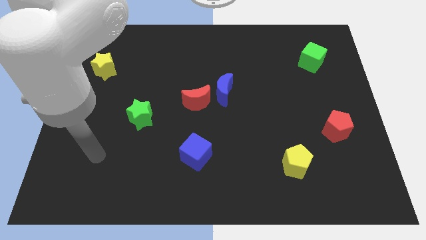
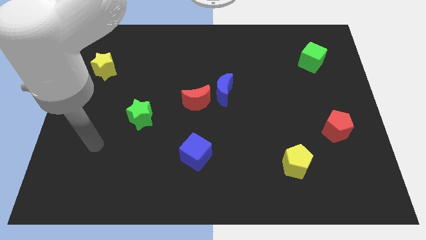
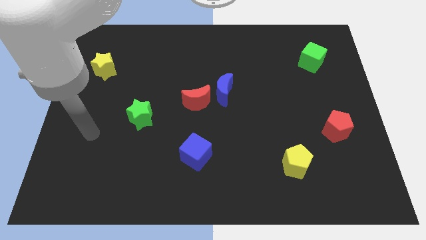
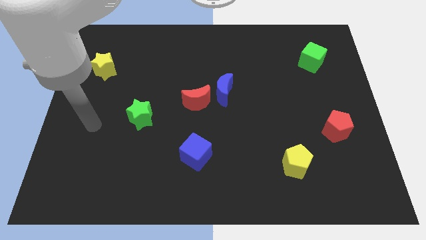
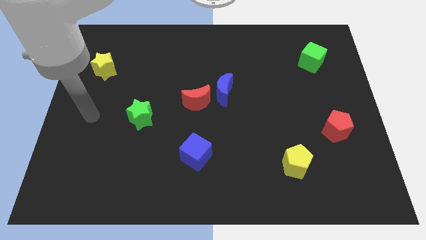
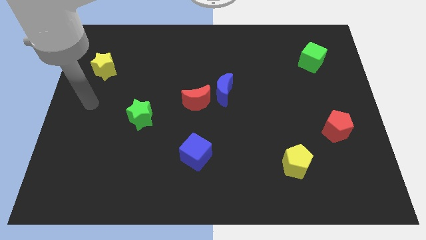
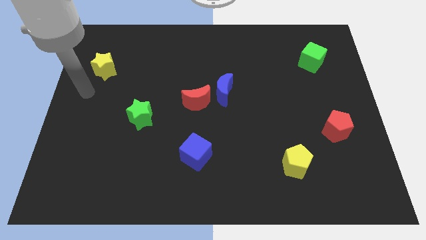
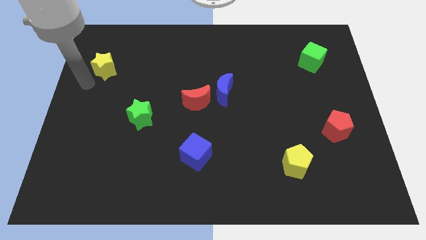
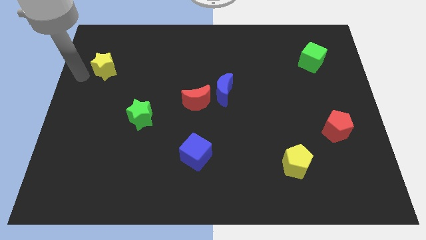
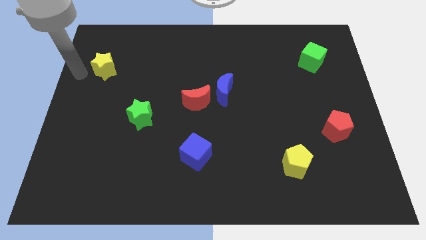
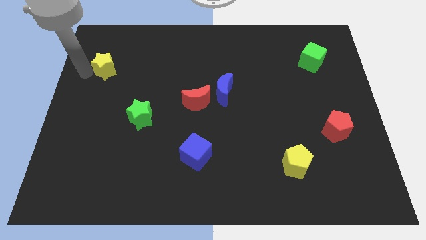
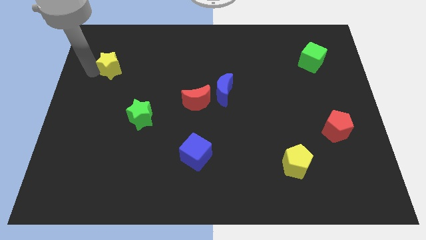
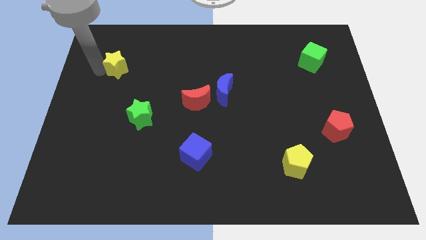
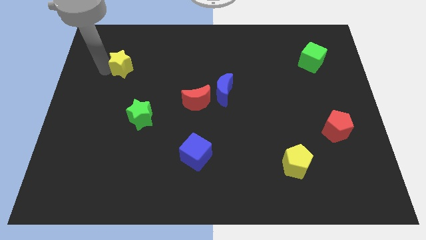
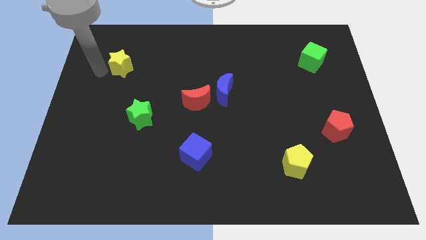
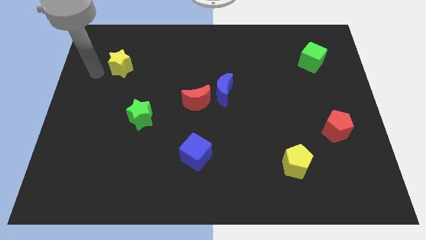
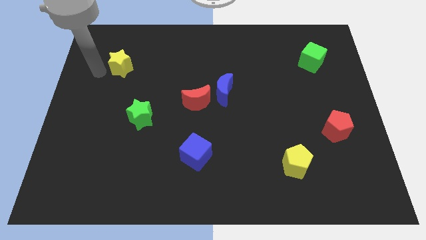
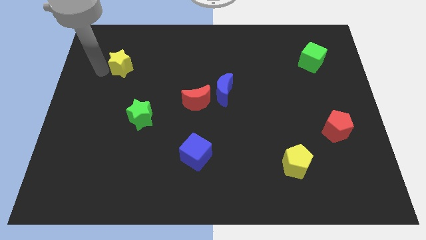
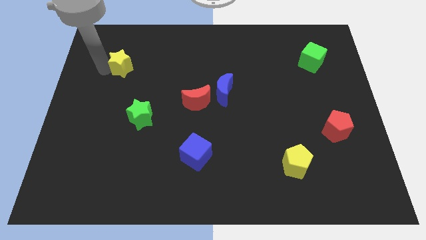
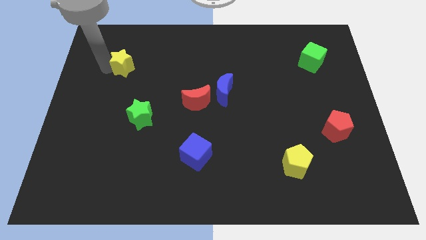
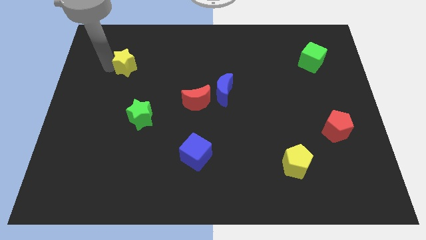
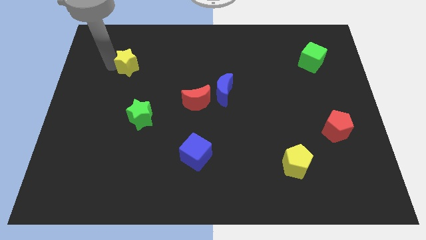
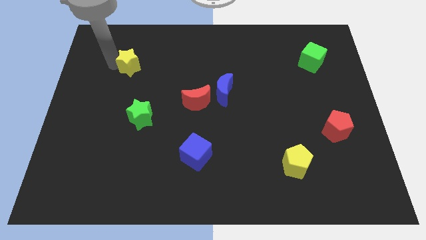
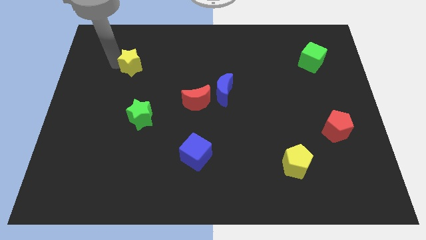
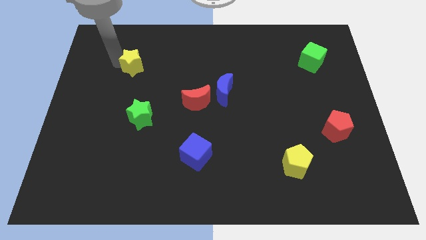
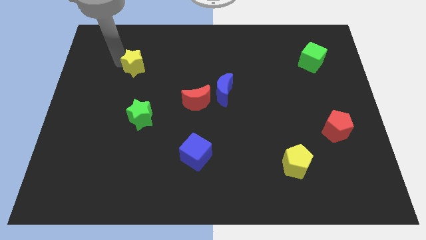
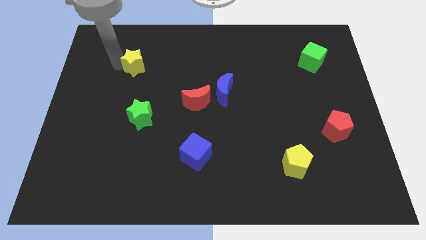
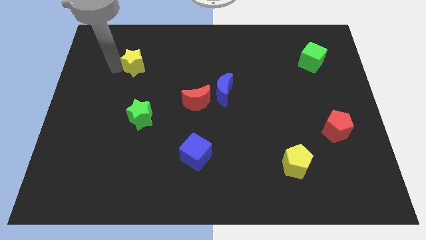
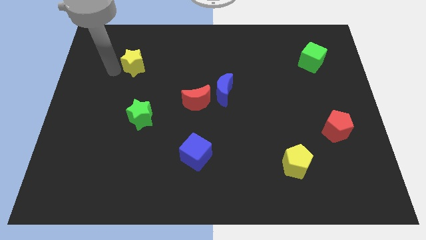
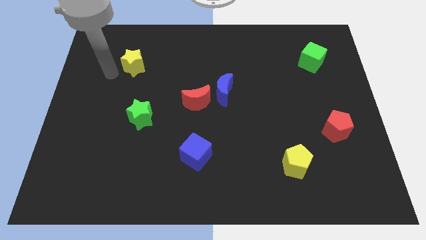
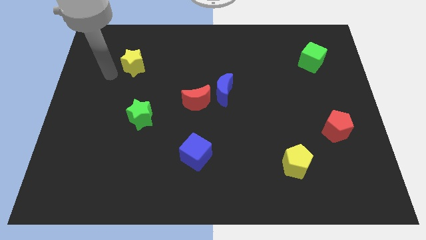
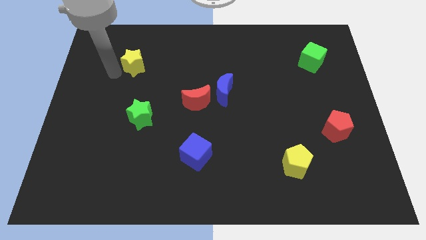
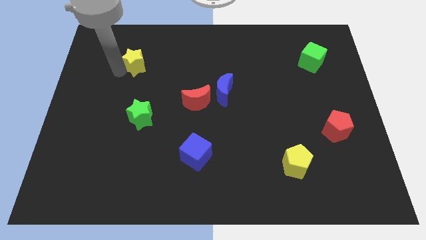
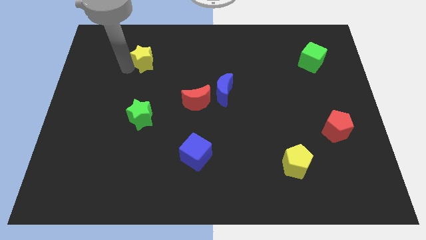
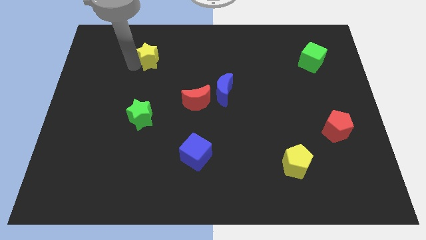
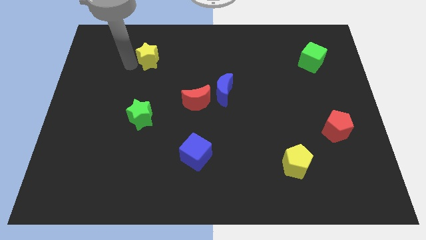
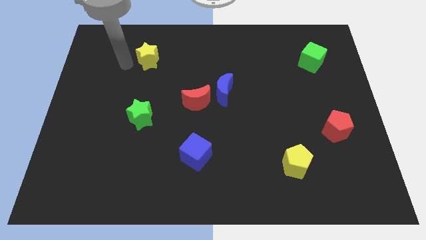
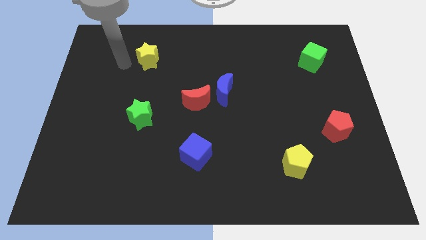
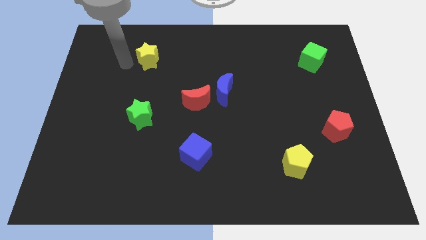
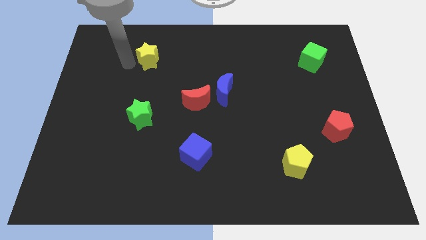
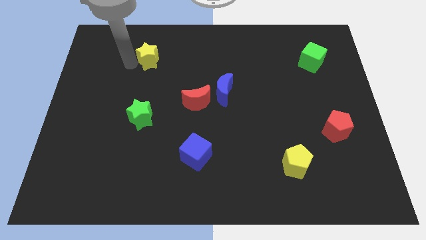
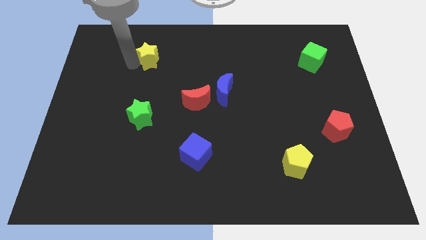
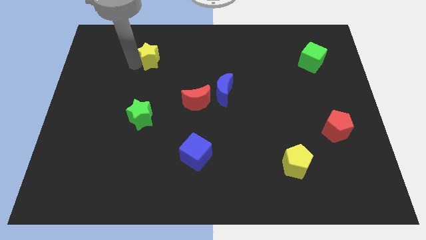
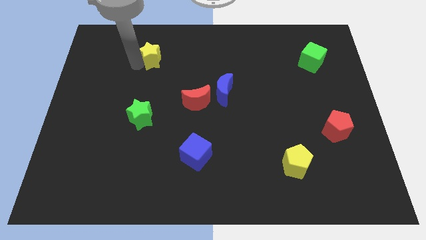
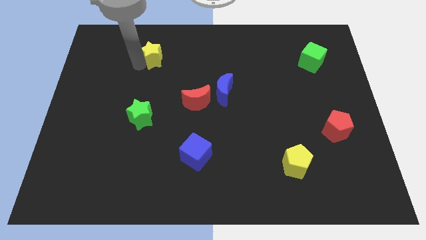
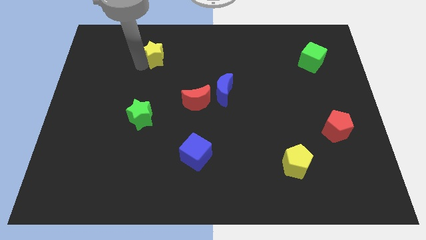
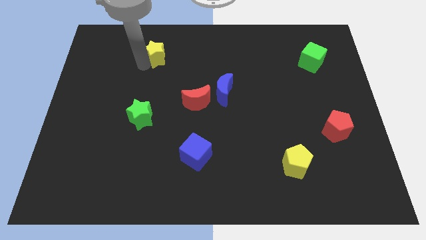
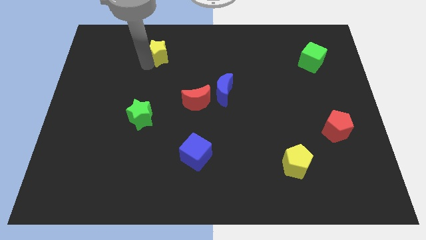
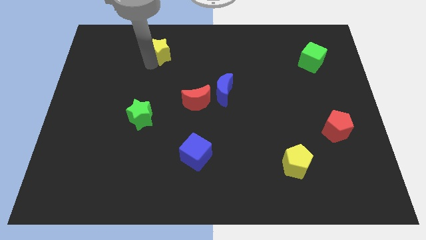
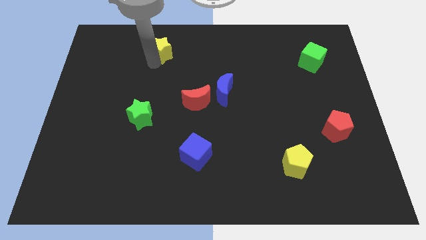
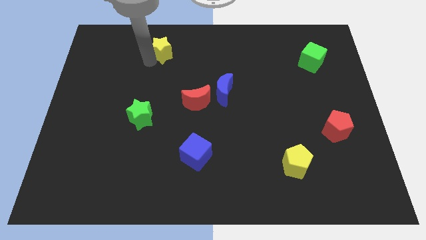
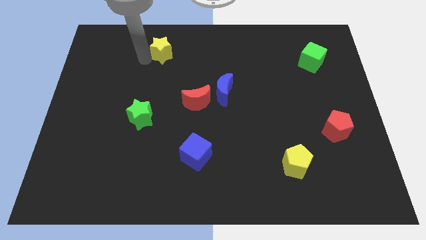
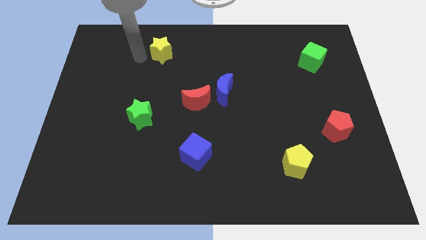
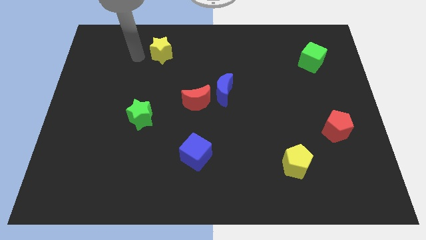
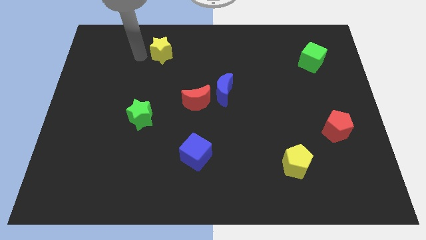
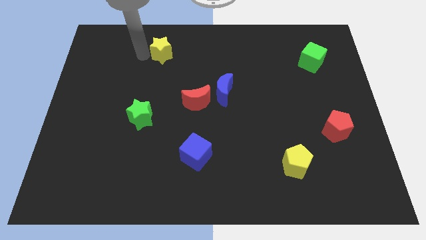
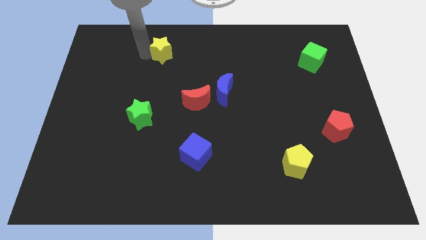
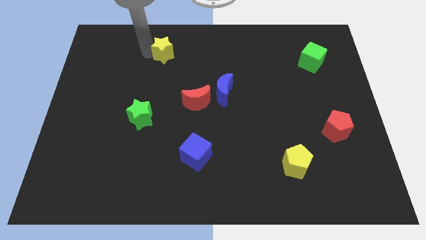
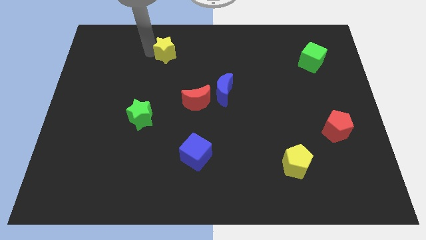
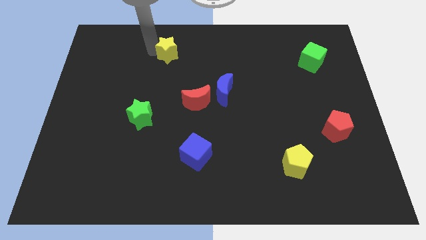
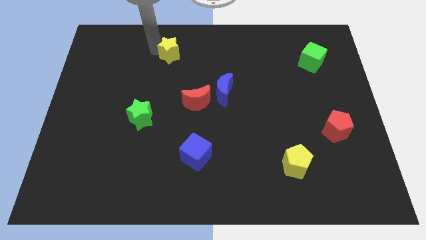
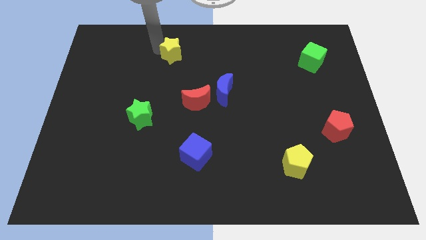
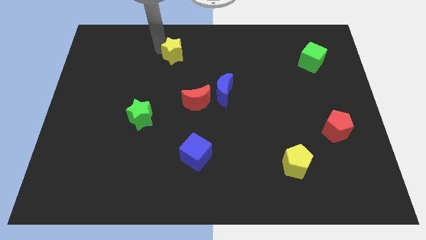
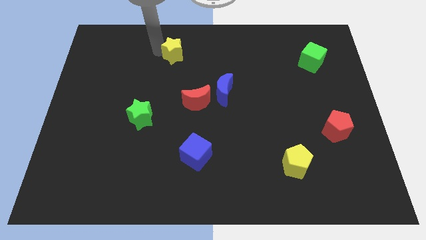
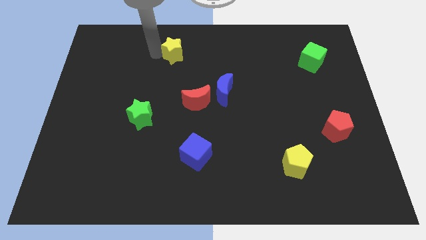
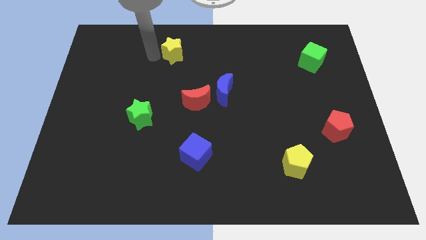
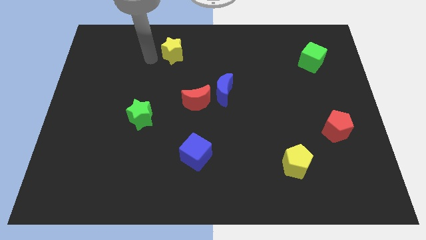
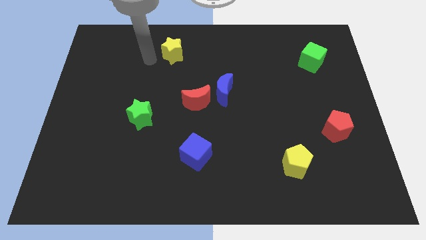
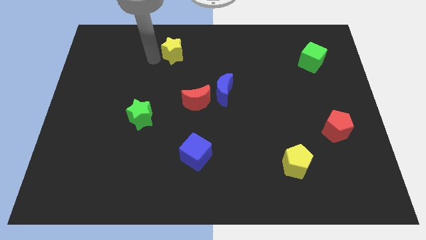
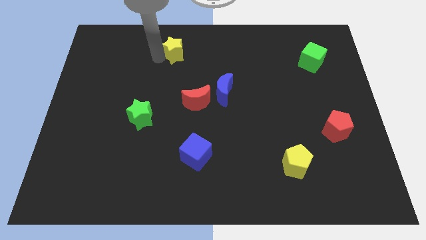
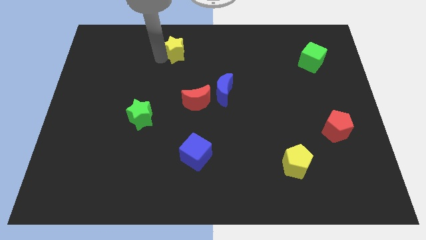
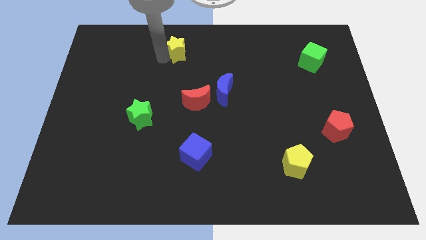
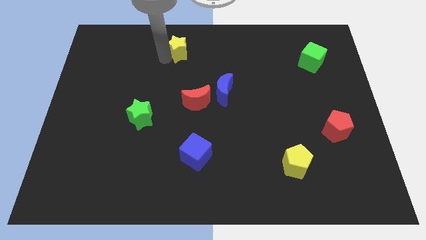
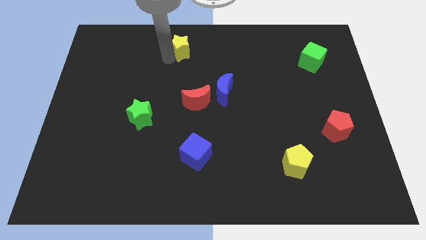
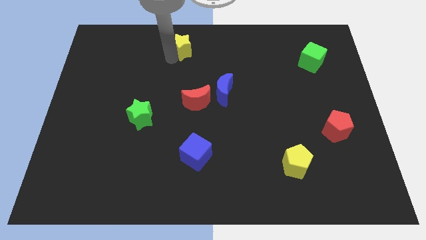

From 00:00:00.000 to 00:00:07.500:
move the yellow star to the top
